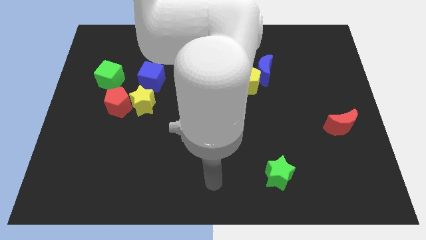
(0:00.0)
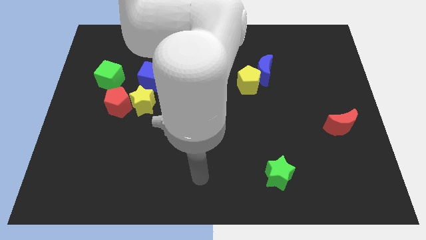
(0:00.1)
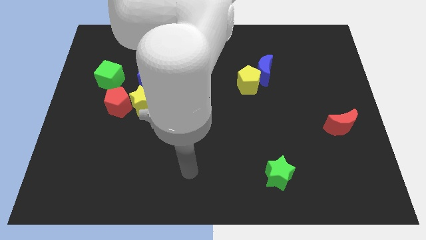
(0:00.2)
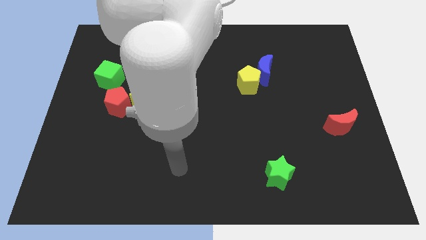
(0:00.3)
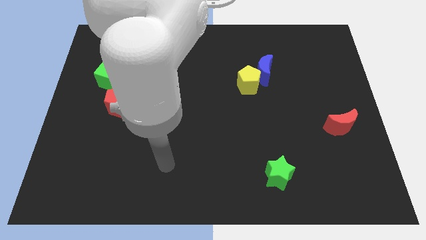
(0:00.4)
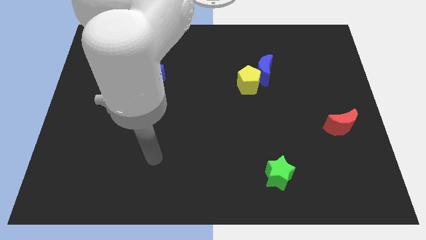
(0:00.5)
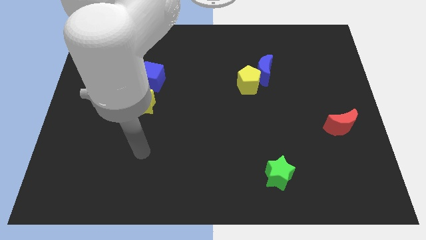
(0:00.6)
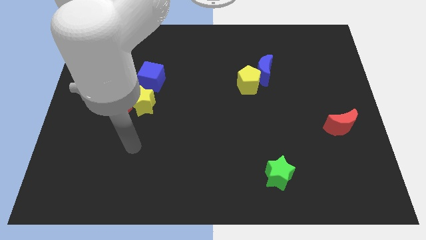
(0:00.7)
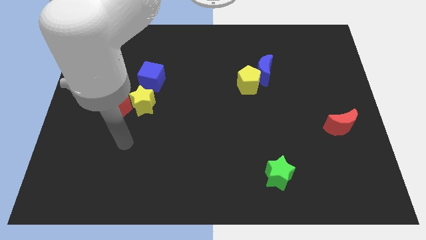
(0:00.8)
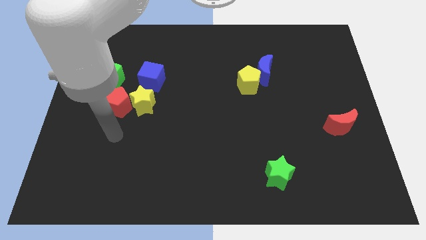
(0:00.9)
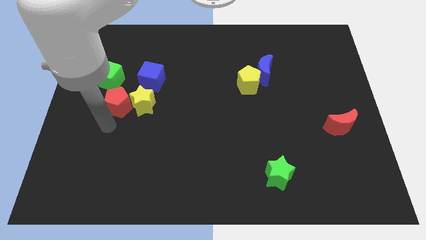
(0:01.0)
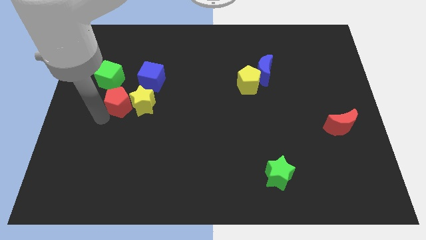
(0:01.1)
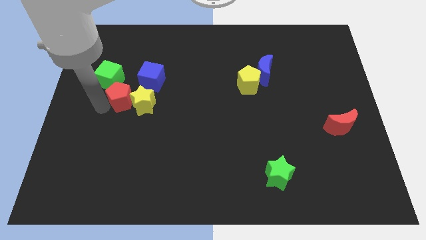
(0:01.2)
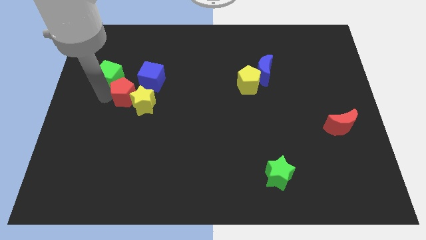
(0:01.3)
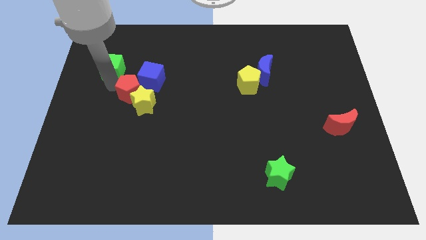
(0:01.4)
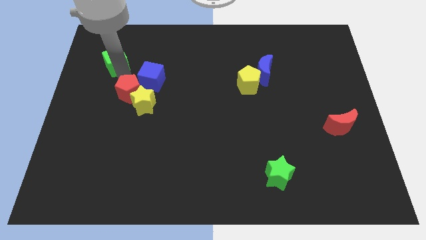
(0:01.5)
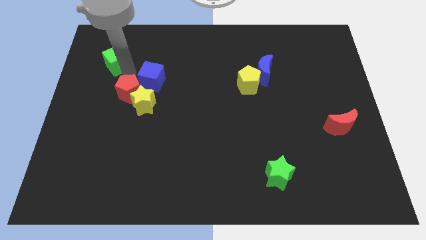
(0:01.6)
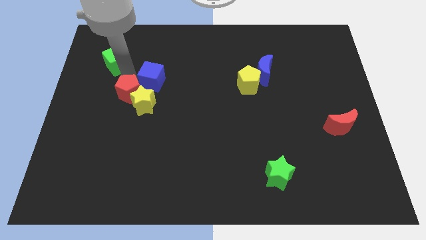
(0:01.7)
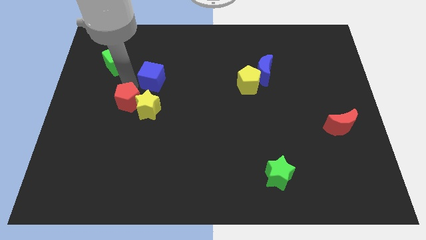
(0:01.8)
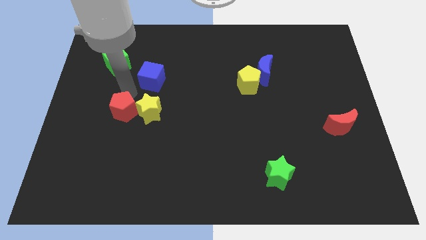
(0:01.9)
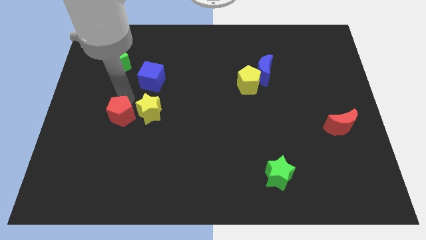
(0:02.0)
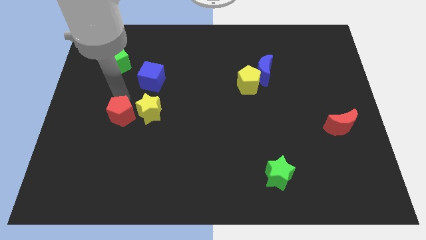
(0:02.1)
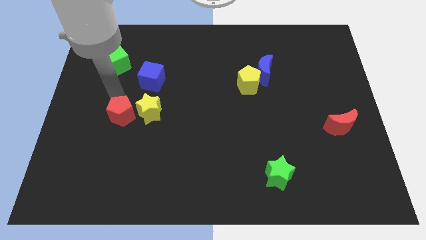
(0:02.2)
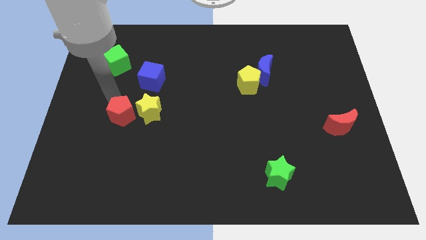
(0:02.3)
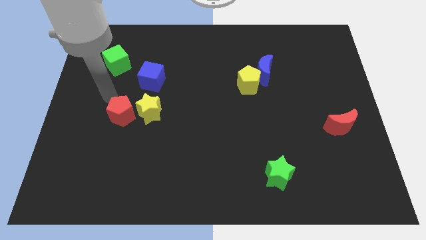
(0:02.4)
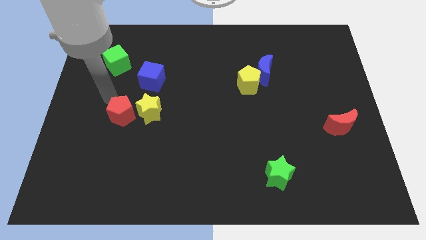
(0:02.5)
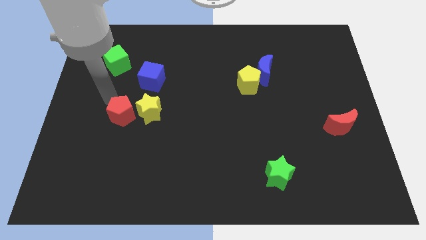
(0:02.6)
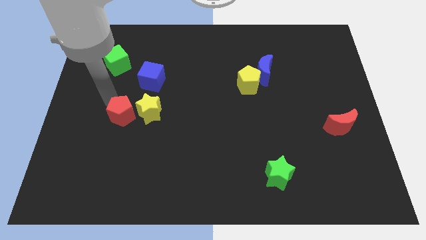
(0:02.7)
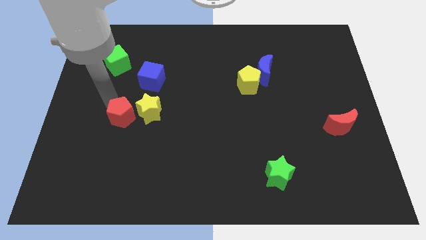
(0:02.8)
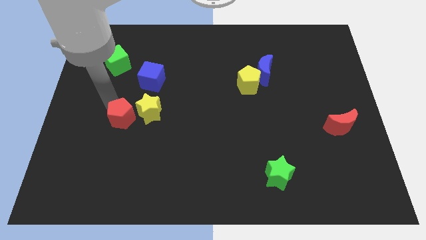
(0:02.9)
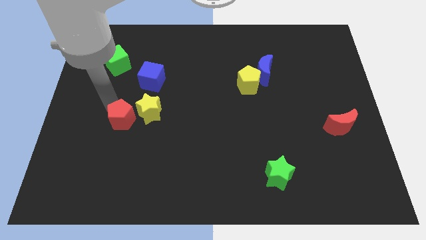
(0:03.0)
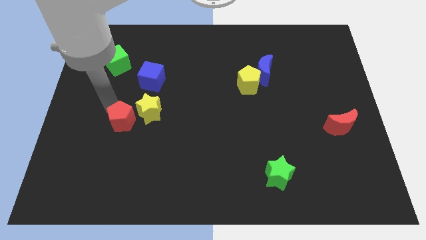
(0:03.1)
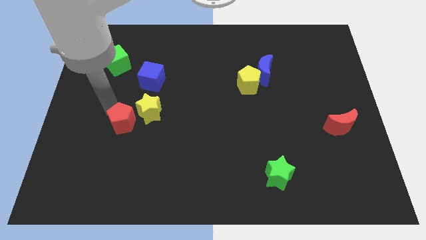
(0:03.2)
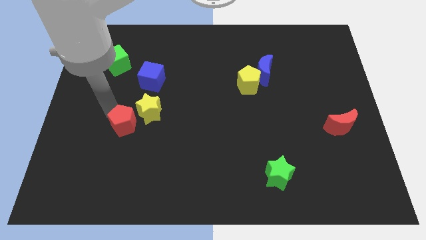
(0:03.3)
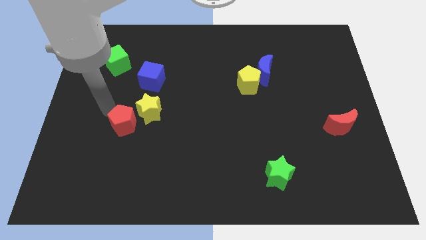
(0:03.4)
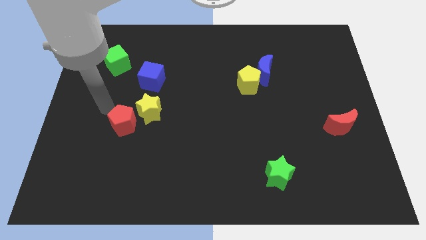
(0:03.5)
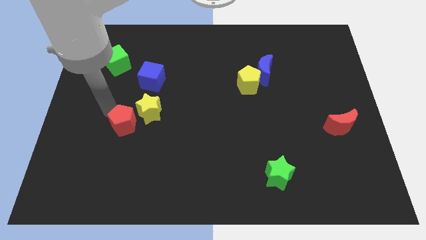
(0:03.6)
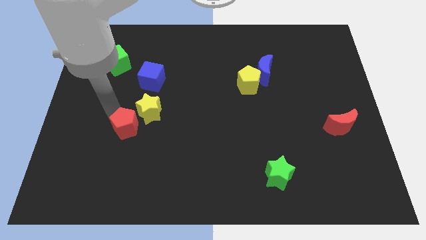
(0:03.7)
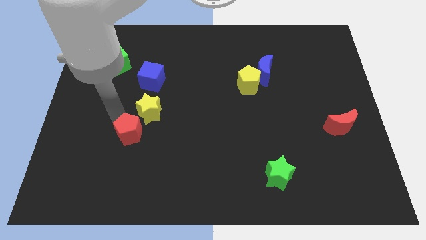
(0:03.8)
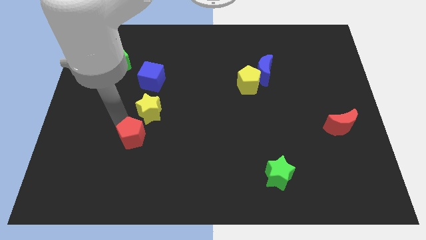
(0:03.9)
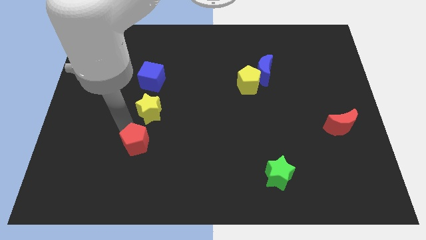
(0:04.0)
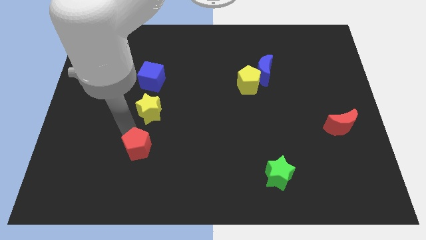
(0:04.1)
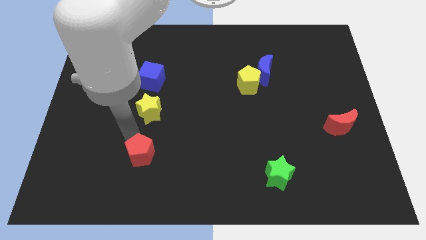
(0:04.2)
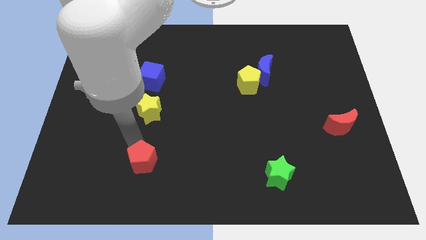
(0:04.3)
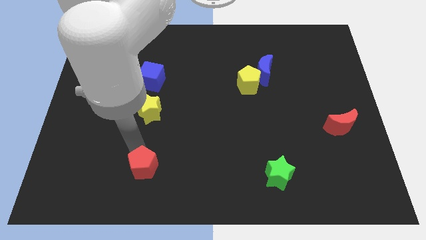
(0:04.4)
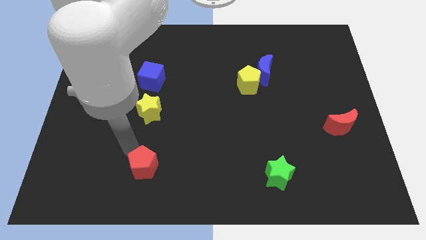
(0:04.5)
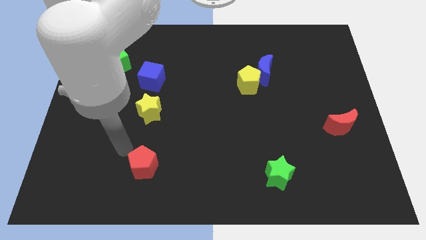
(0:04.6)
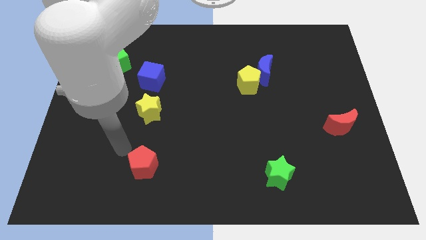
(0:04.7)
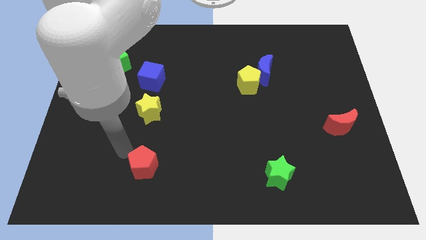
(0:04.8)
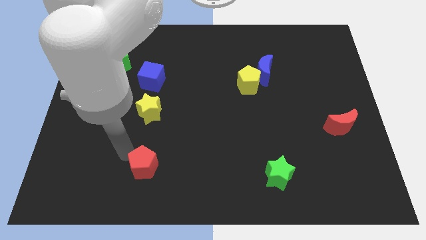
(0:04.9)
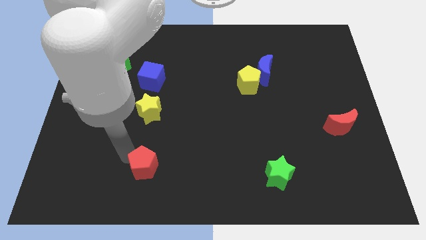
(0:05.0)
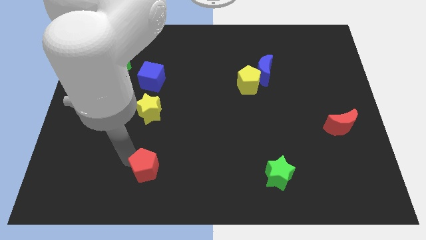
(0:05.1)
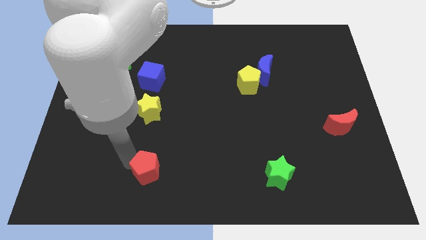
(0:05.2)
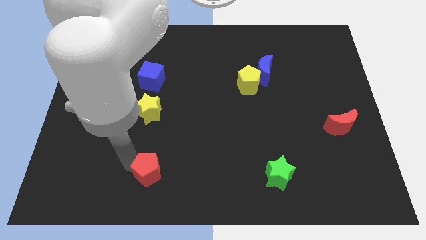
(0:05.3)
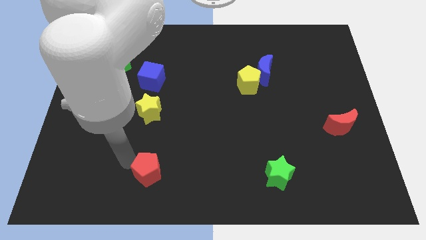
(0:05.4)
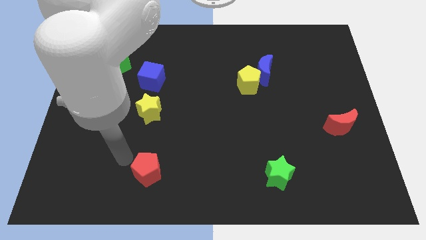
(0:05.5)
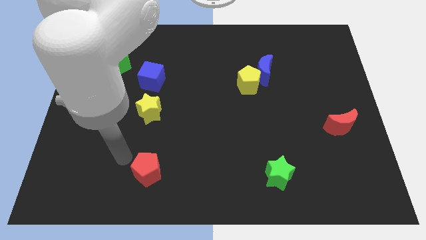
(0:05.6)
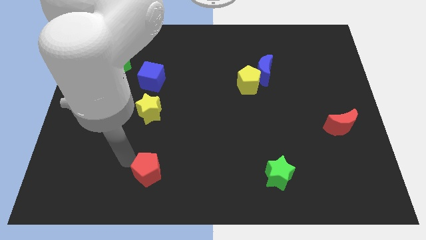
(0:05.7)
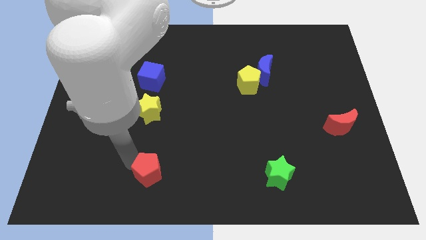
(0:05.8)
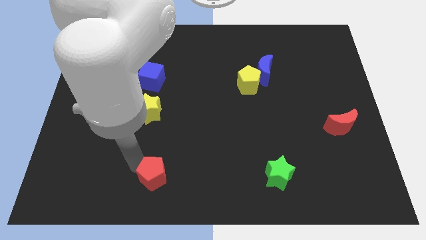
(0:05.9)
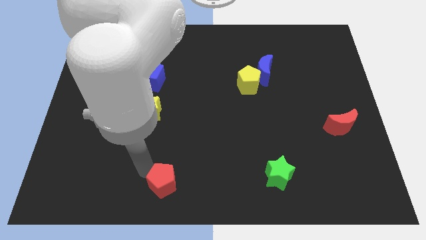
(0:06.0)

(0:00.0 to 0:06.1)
put the red pentagon to the bottom

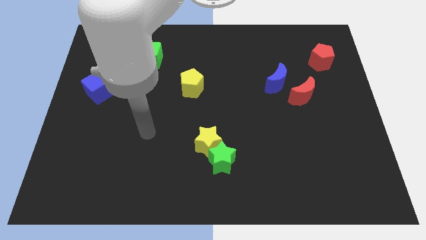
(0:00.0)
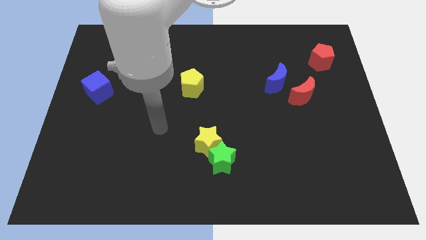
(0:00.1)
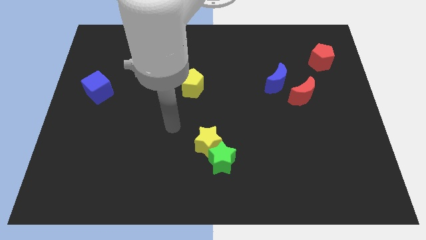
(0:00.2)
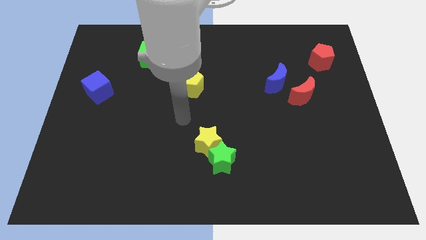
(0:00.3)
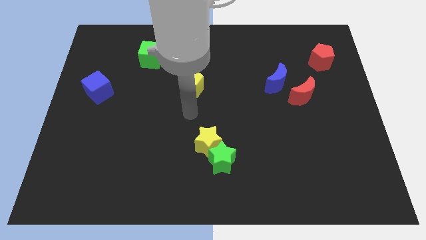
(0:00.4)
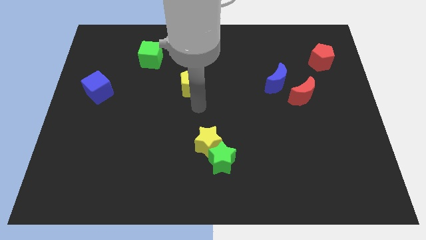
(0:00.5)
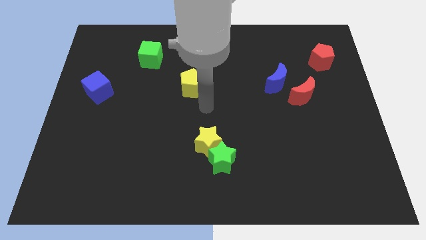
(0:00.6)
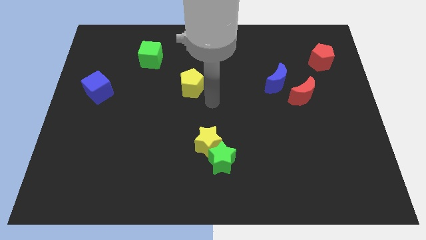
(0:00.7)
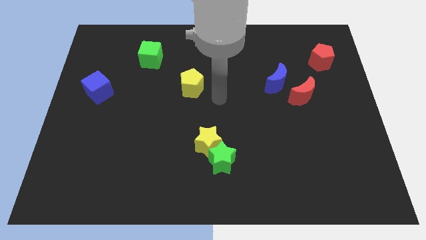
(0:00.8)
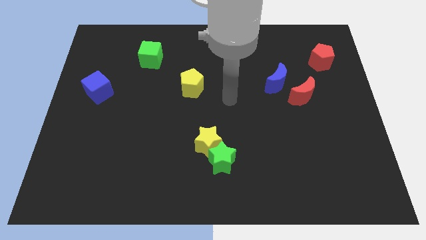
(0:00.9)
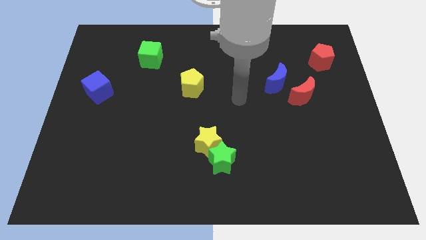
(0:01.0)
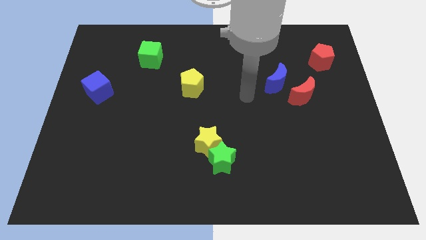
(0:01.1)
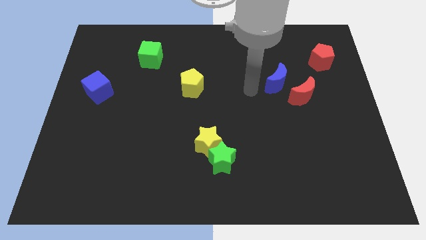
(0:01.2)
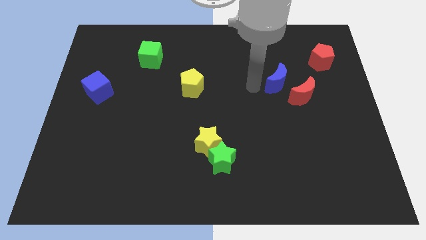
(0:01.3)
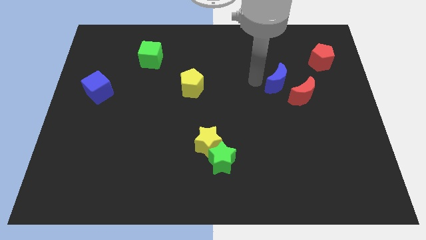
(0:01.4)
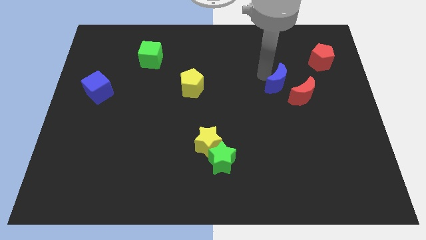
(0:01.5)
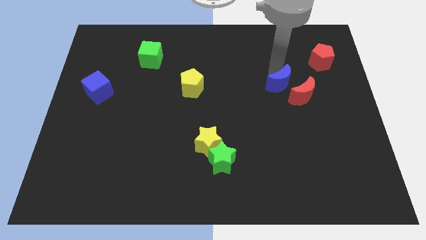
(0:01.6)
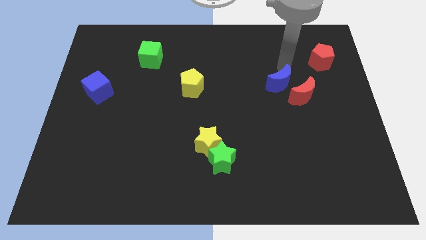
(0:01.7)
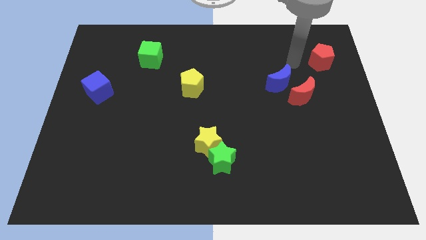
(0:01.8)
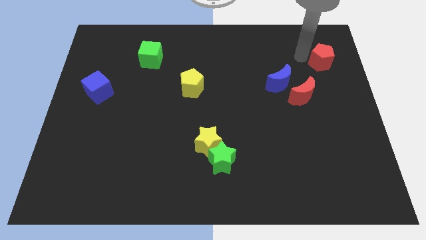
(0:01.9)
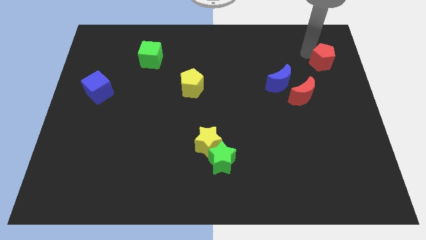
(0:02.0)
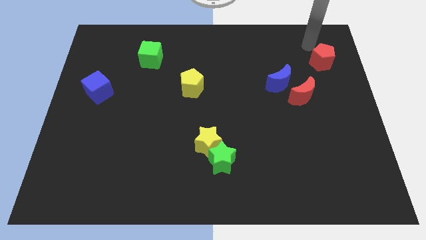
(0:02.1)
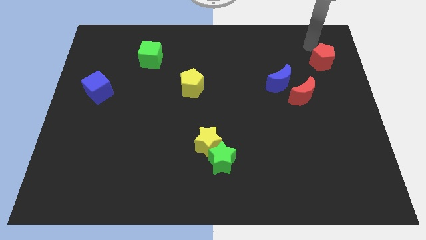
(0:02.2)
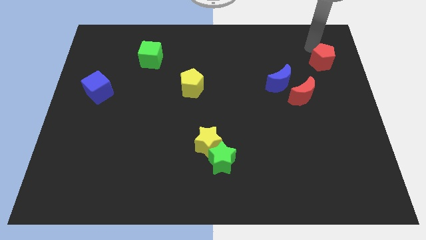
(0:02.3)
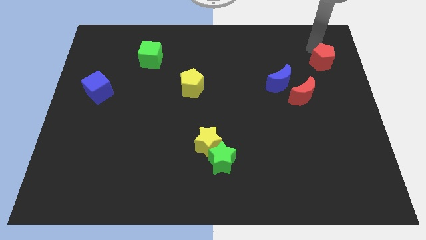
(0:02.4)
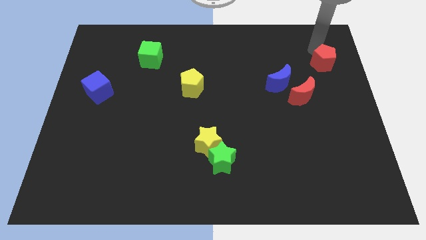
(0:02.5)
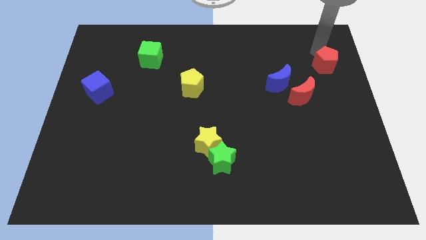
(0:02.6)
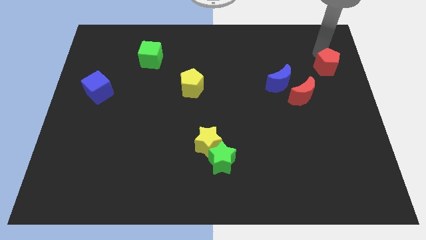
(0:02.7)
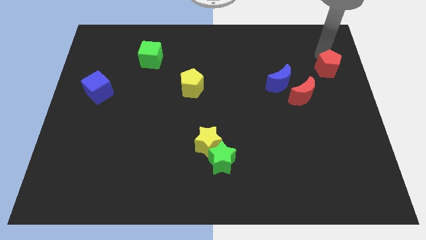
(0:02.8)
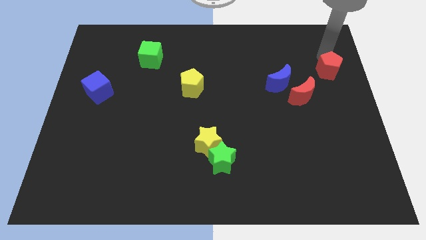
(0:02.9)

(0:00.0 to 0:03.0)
push the red pentagon to the center right
